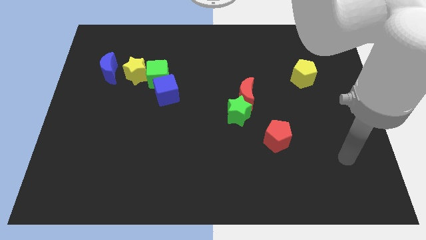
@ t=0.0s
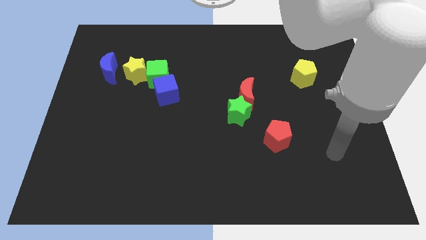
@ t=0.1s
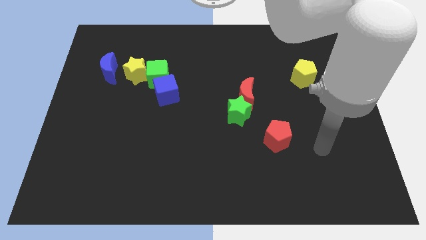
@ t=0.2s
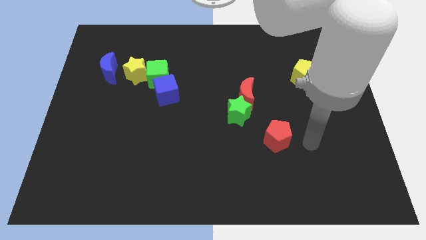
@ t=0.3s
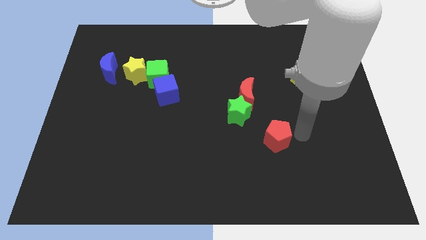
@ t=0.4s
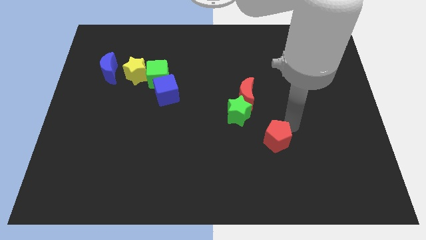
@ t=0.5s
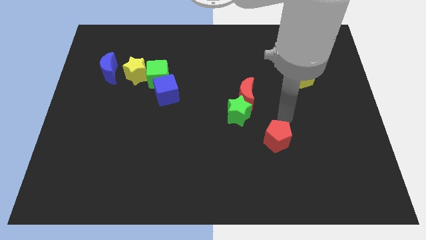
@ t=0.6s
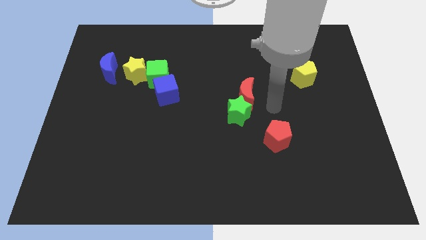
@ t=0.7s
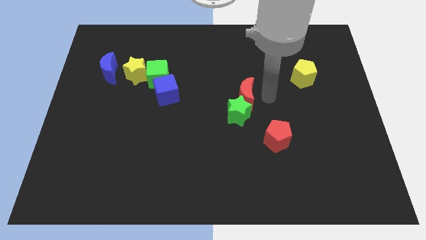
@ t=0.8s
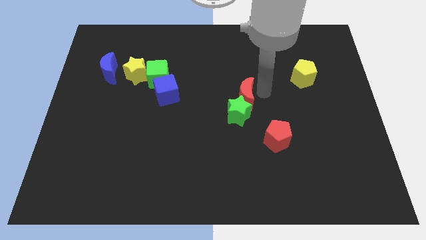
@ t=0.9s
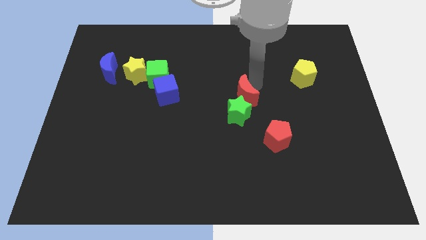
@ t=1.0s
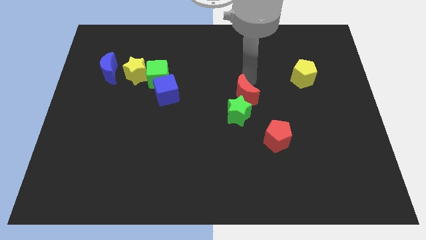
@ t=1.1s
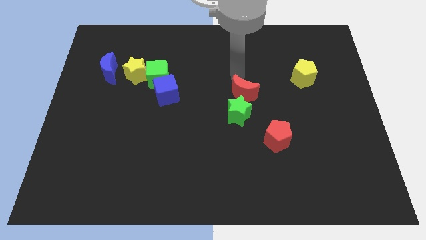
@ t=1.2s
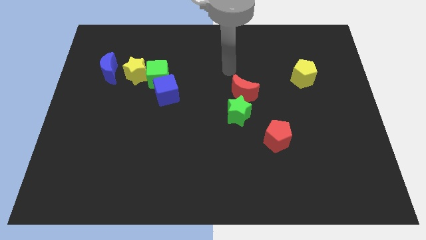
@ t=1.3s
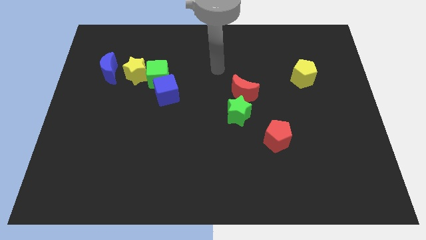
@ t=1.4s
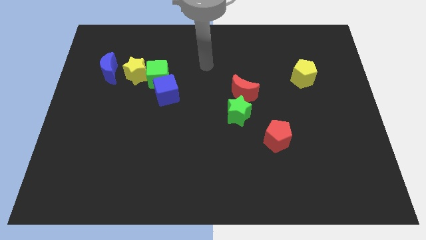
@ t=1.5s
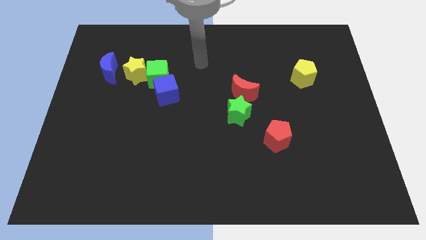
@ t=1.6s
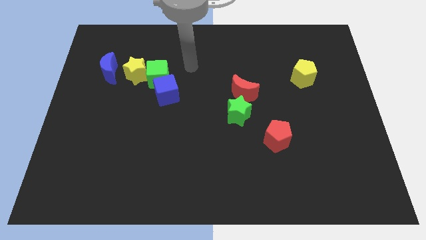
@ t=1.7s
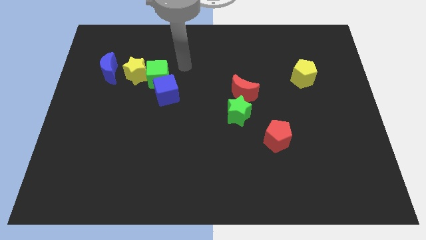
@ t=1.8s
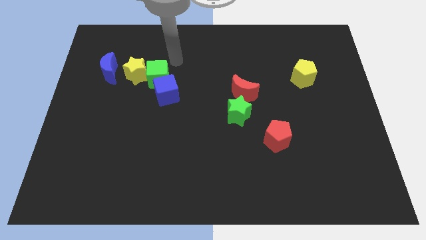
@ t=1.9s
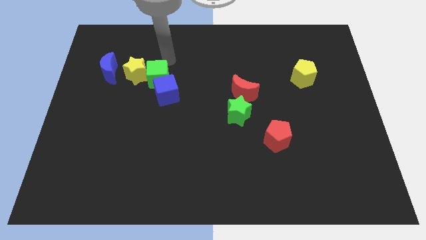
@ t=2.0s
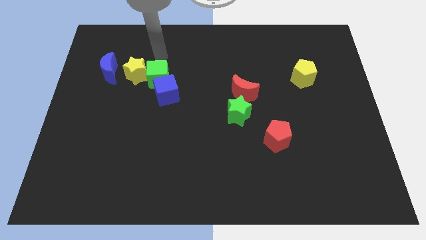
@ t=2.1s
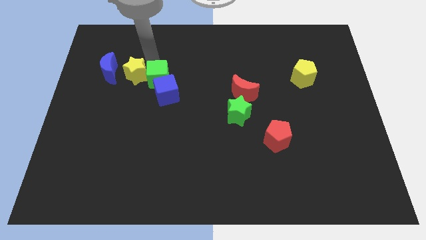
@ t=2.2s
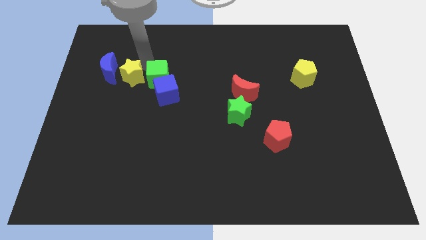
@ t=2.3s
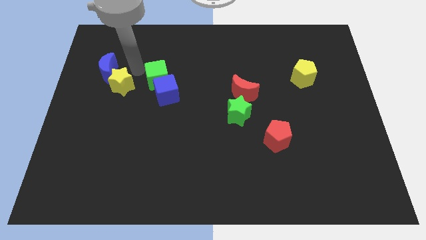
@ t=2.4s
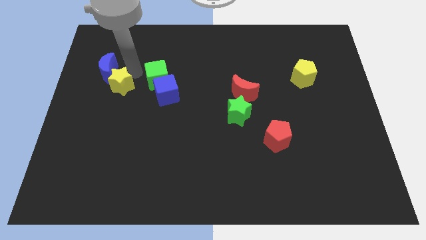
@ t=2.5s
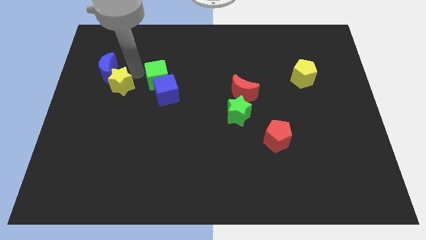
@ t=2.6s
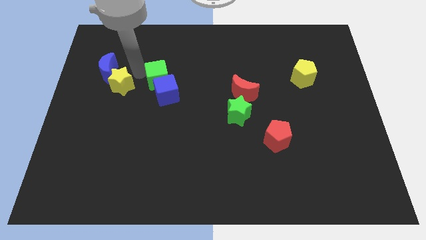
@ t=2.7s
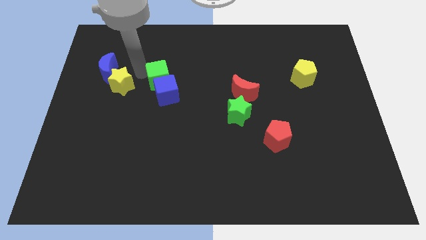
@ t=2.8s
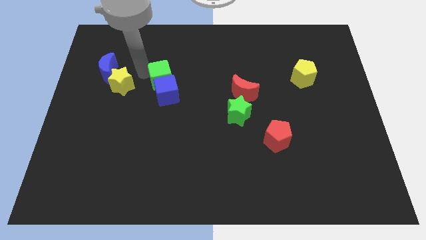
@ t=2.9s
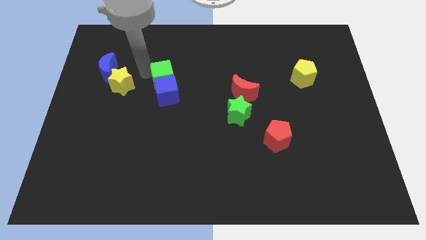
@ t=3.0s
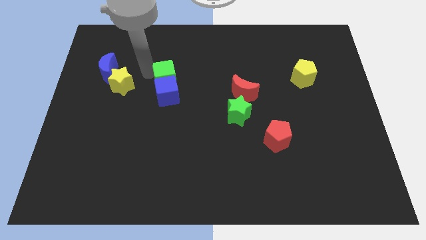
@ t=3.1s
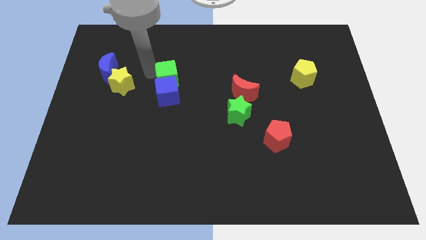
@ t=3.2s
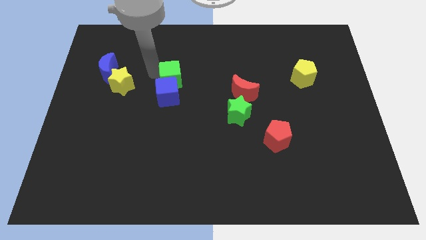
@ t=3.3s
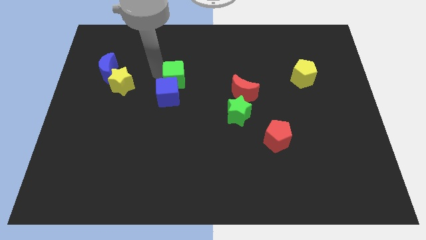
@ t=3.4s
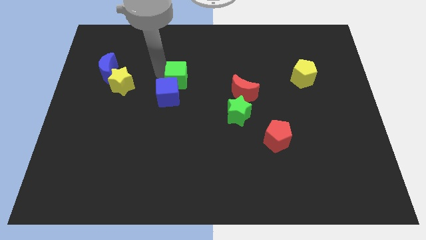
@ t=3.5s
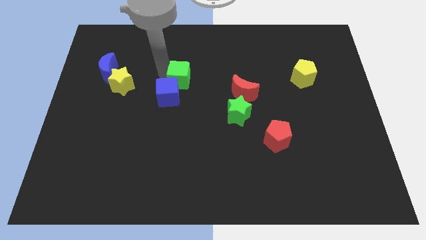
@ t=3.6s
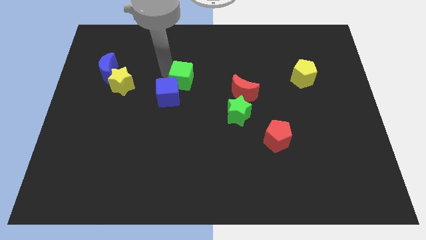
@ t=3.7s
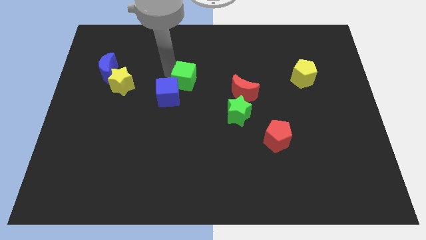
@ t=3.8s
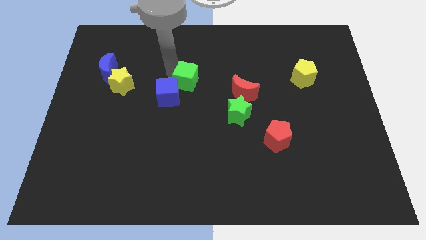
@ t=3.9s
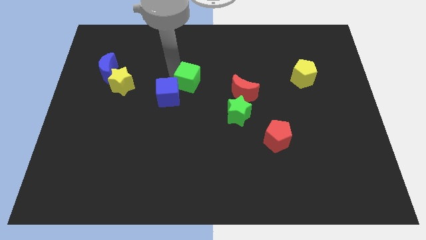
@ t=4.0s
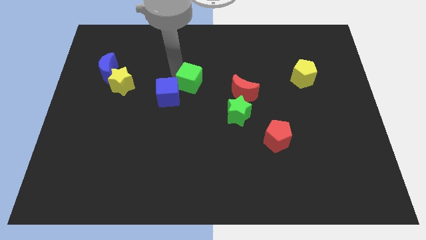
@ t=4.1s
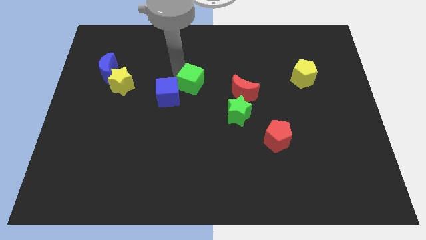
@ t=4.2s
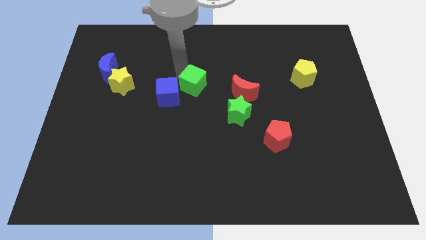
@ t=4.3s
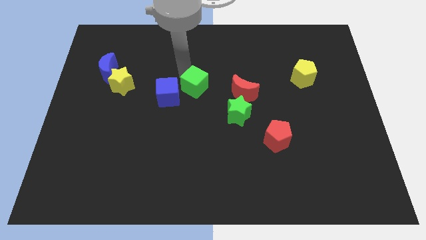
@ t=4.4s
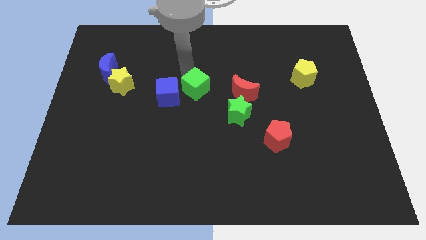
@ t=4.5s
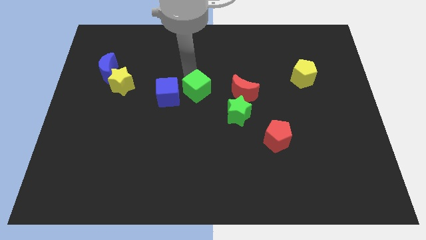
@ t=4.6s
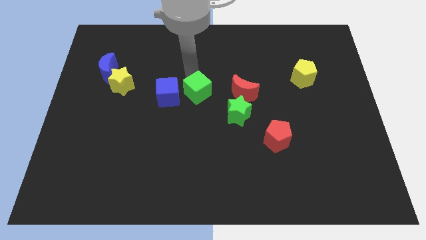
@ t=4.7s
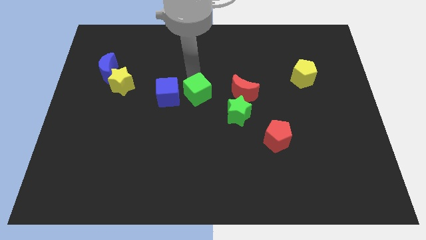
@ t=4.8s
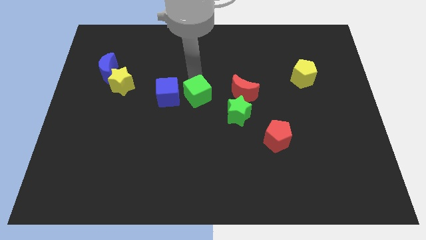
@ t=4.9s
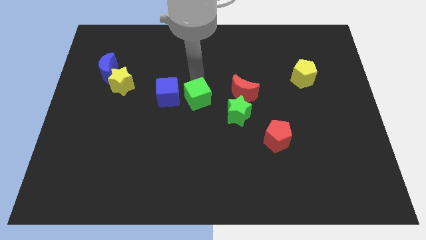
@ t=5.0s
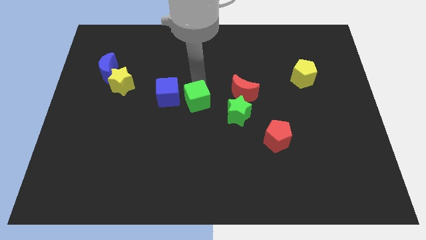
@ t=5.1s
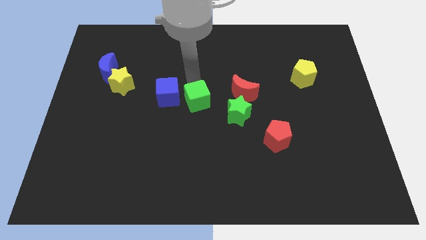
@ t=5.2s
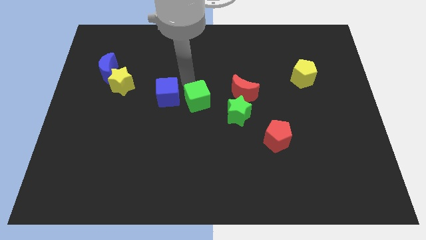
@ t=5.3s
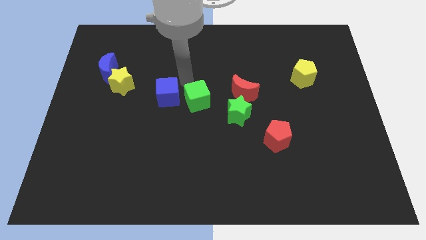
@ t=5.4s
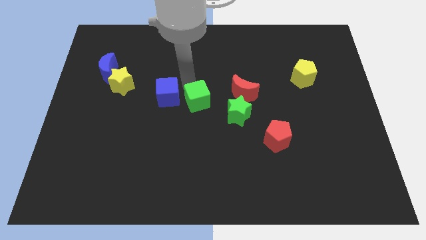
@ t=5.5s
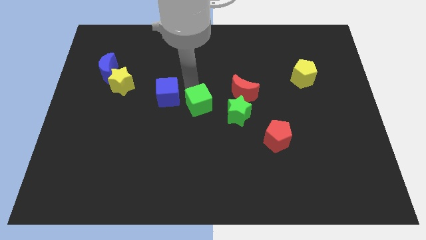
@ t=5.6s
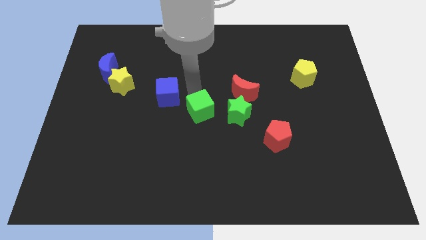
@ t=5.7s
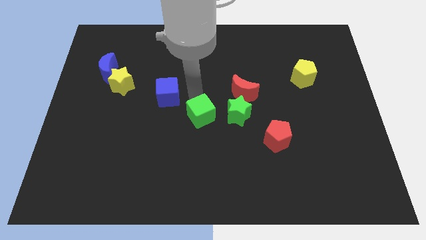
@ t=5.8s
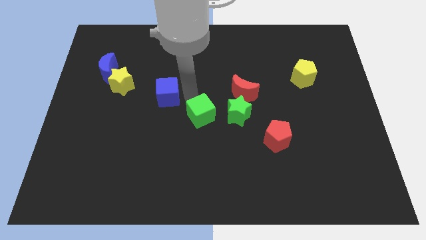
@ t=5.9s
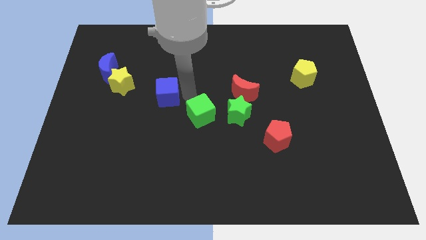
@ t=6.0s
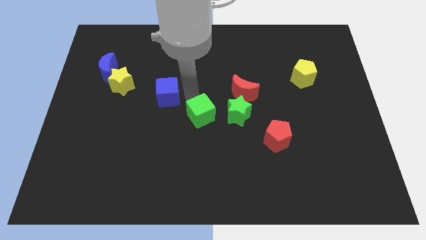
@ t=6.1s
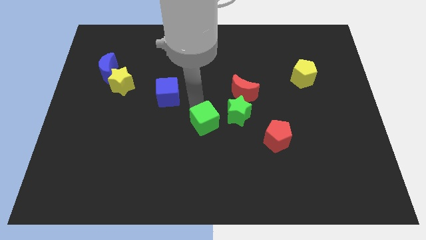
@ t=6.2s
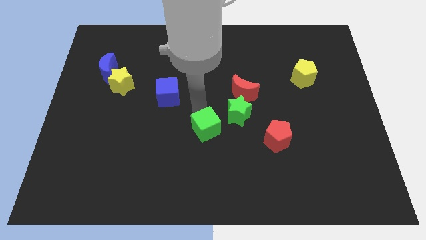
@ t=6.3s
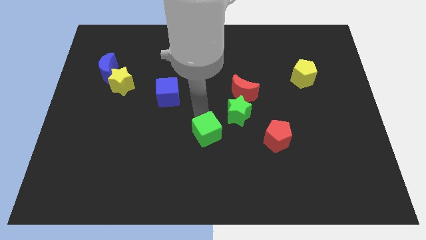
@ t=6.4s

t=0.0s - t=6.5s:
move the green cube down and then right

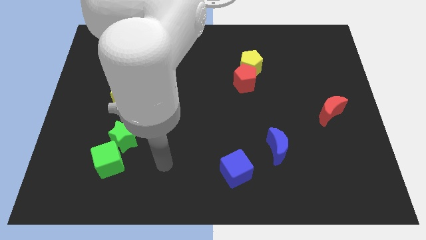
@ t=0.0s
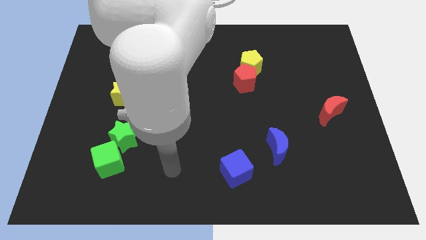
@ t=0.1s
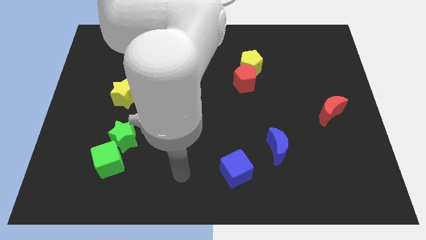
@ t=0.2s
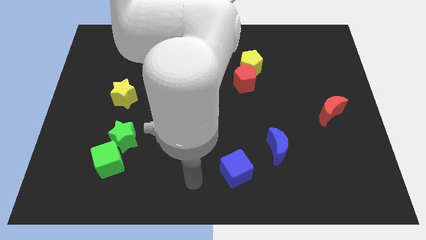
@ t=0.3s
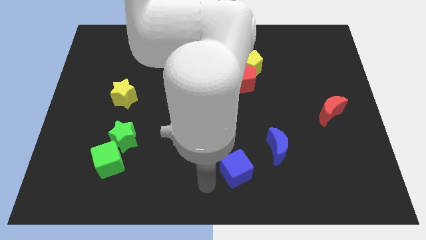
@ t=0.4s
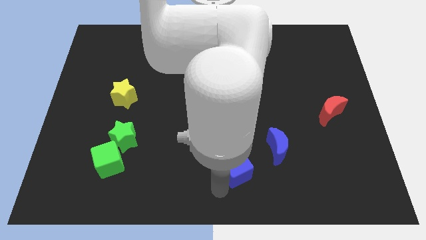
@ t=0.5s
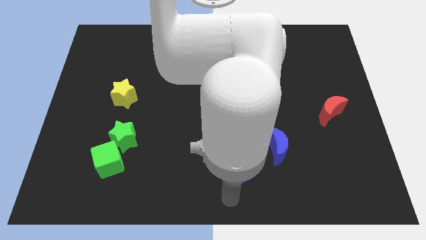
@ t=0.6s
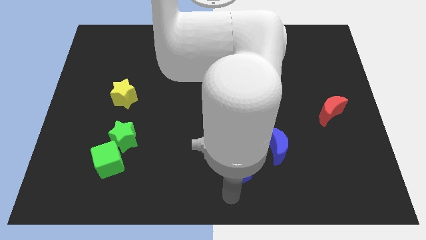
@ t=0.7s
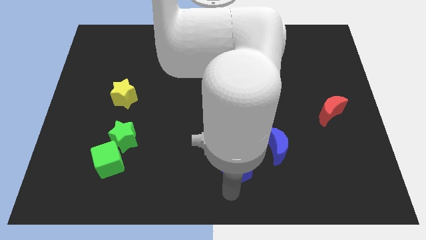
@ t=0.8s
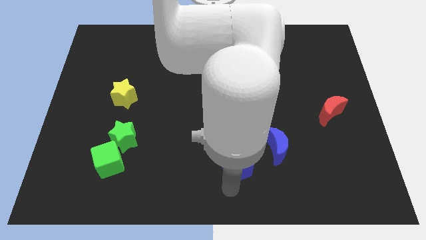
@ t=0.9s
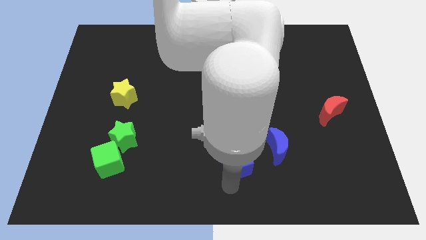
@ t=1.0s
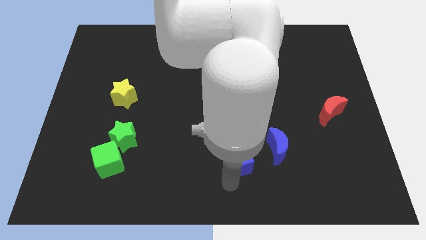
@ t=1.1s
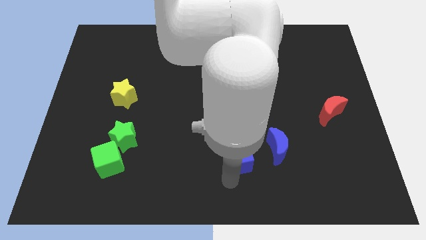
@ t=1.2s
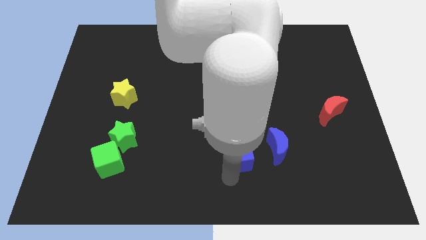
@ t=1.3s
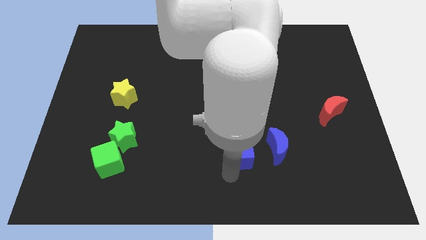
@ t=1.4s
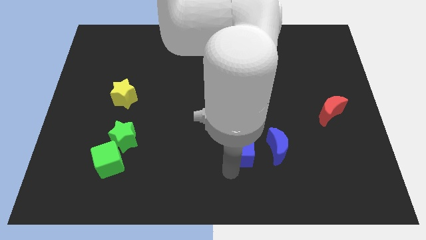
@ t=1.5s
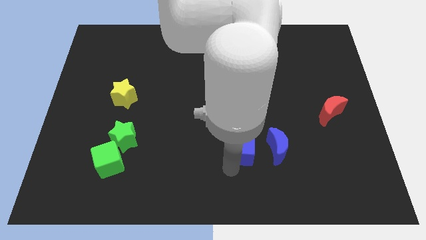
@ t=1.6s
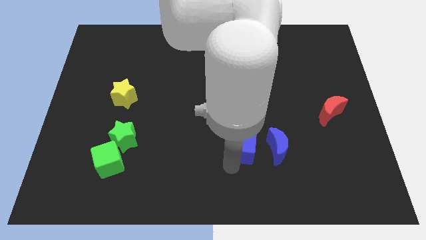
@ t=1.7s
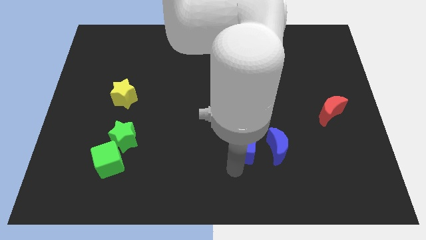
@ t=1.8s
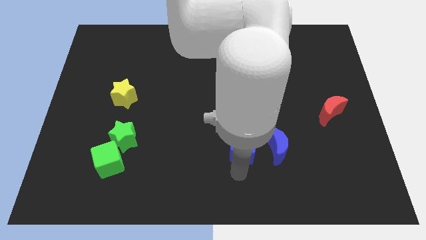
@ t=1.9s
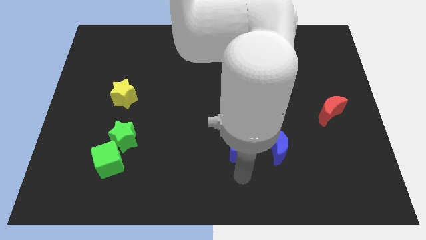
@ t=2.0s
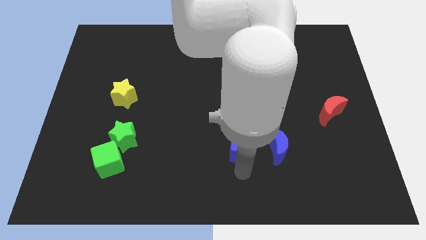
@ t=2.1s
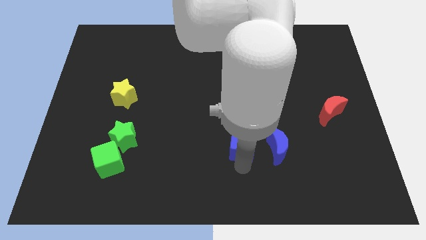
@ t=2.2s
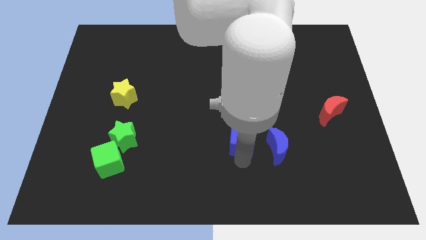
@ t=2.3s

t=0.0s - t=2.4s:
push the blue cube a little up
